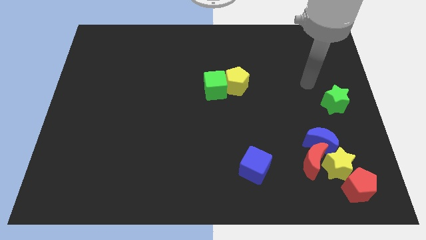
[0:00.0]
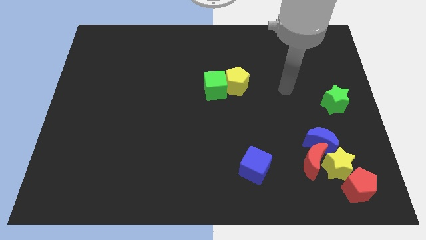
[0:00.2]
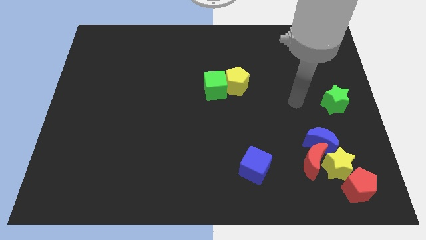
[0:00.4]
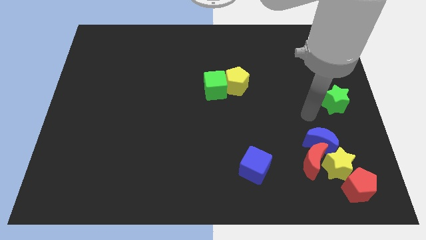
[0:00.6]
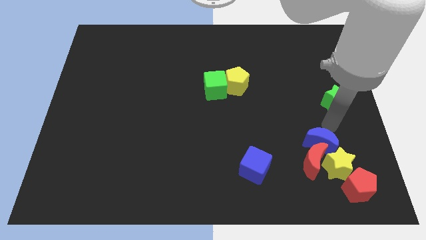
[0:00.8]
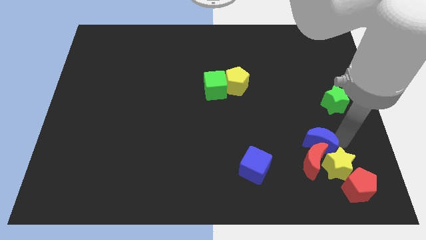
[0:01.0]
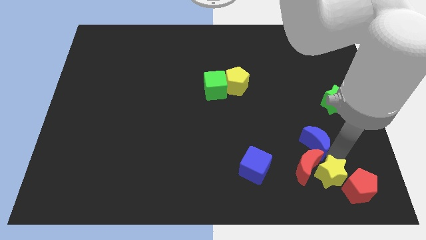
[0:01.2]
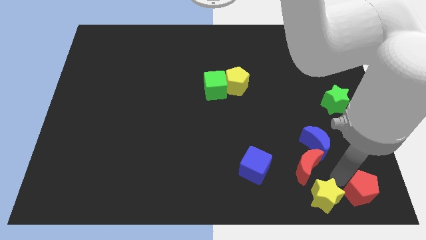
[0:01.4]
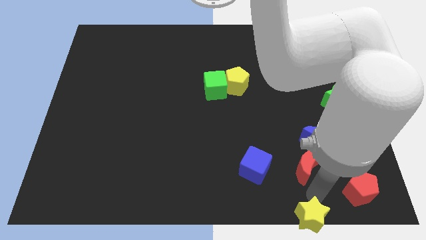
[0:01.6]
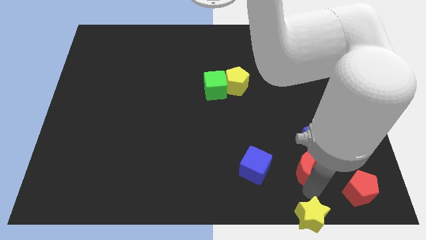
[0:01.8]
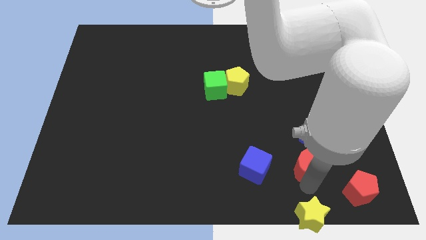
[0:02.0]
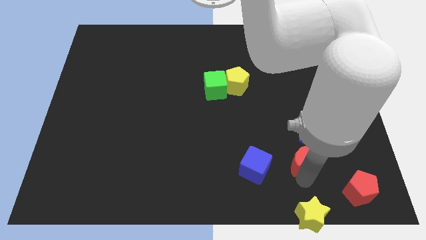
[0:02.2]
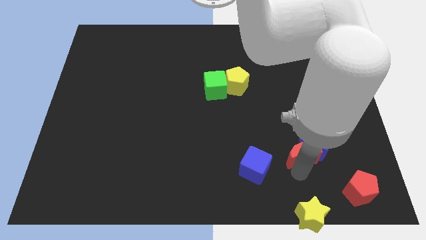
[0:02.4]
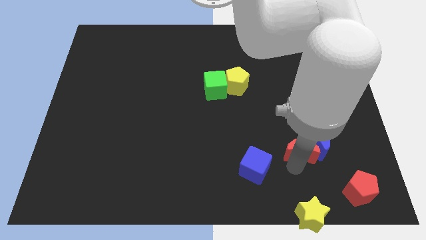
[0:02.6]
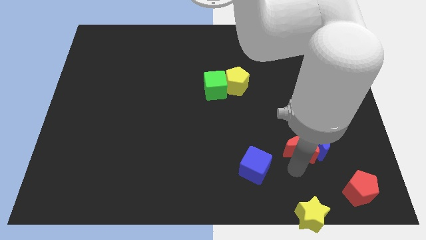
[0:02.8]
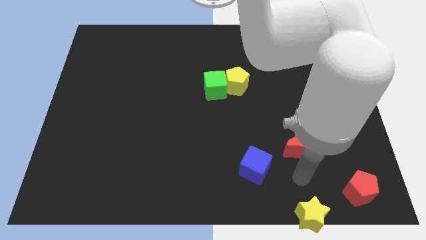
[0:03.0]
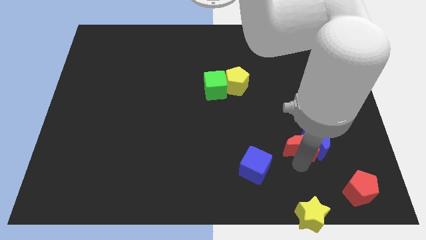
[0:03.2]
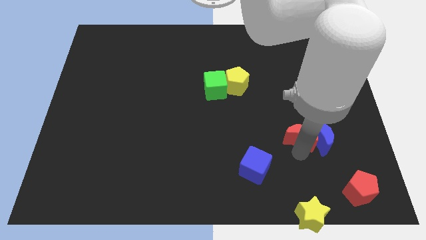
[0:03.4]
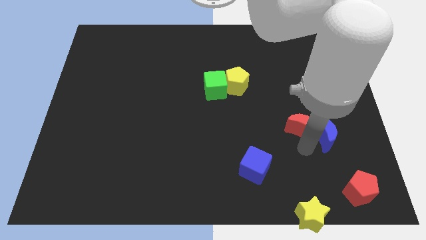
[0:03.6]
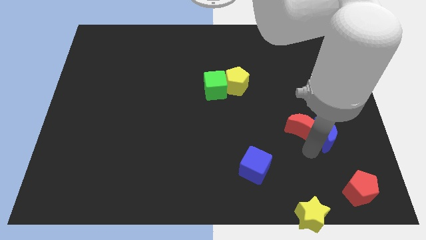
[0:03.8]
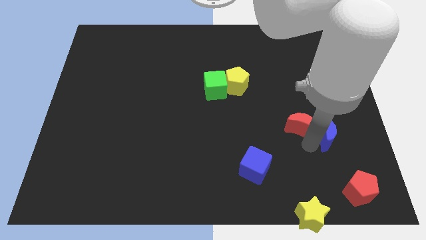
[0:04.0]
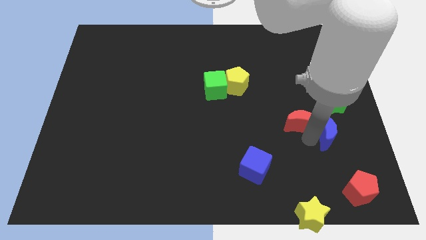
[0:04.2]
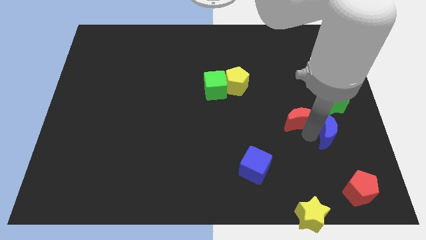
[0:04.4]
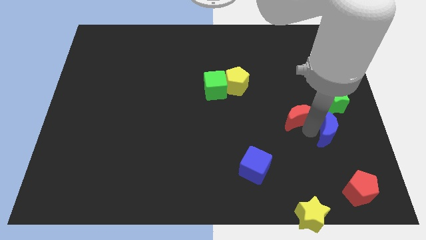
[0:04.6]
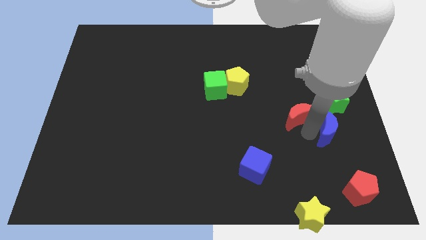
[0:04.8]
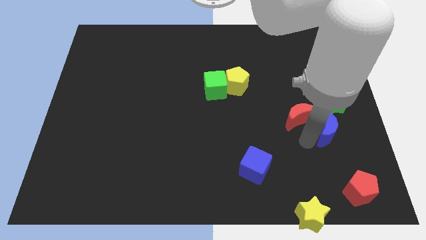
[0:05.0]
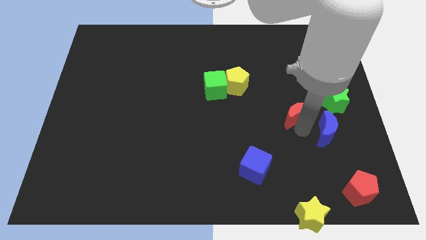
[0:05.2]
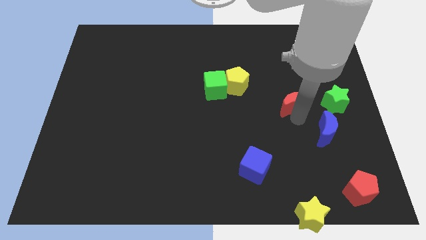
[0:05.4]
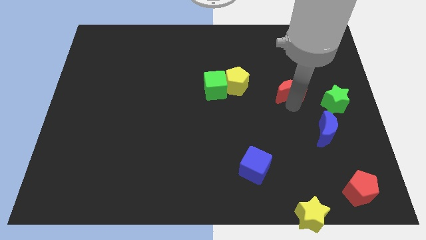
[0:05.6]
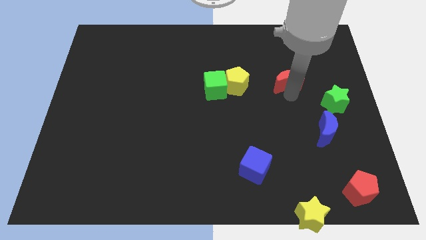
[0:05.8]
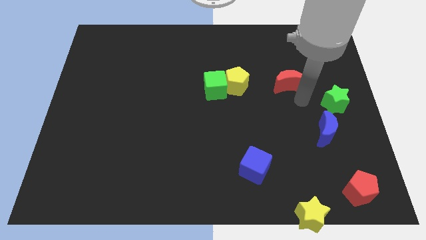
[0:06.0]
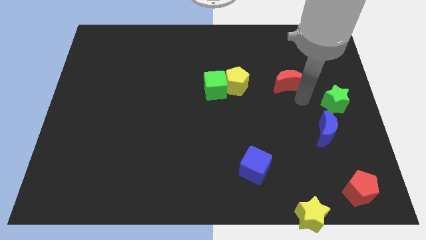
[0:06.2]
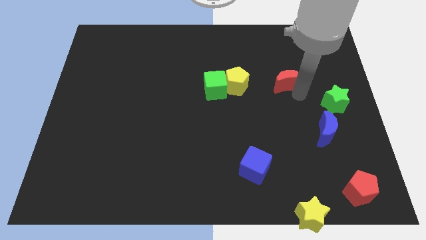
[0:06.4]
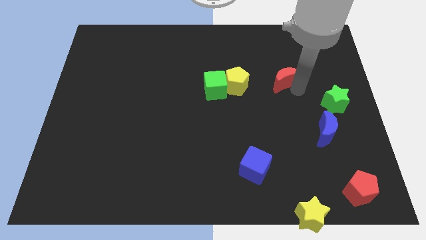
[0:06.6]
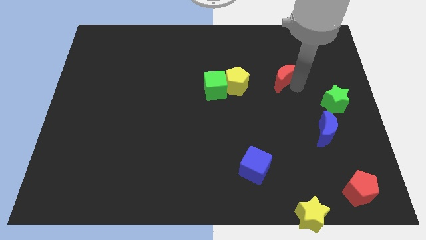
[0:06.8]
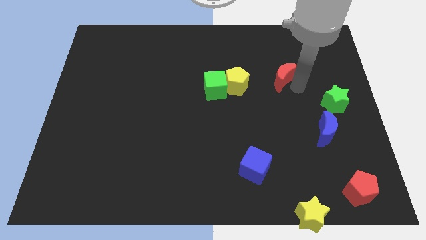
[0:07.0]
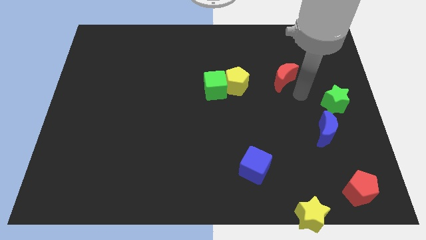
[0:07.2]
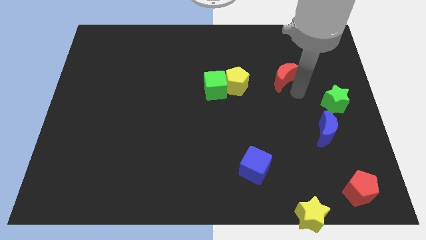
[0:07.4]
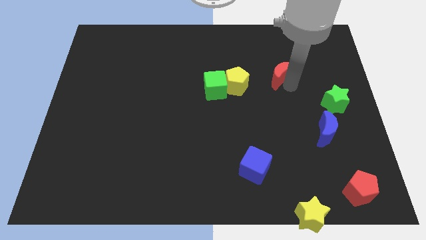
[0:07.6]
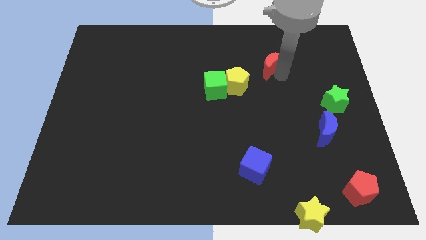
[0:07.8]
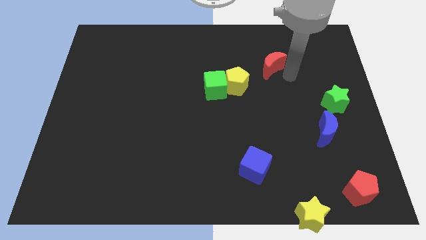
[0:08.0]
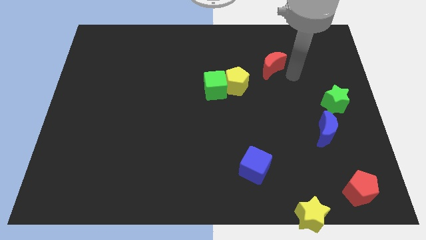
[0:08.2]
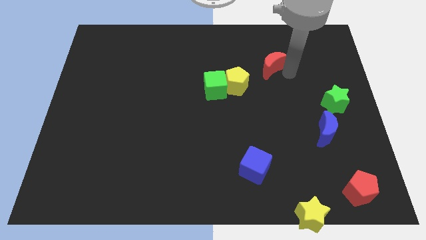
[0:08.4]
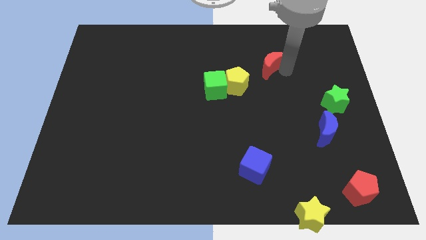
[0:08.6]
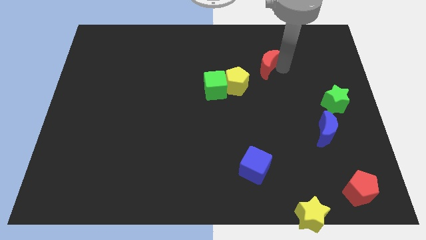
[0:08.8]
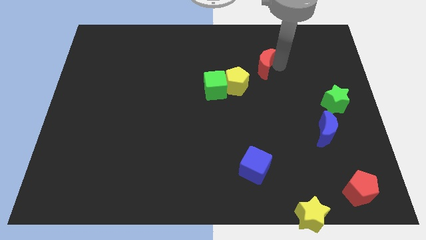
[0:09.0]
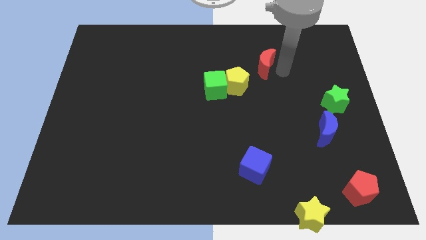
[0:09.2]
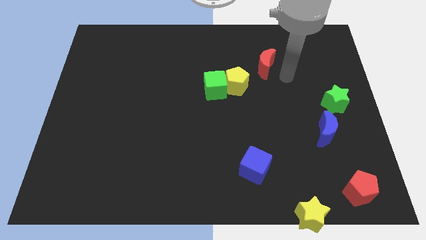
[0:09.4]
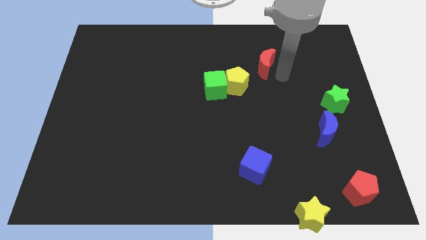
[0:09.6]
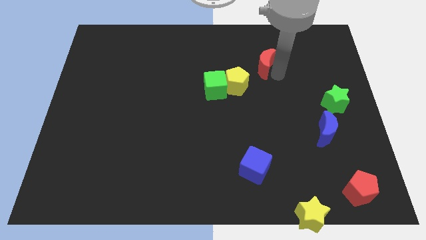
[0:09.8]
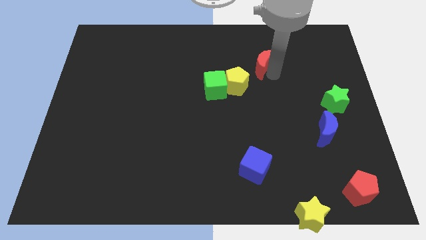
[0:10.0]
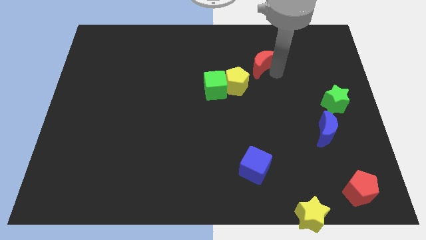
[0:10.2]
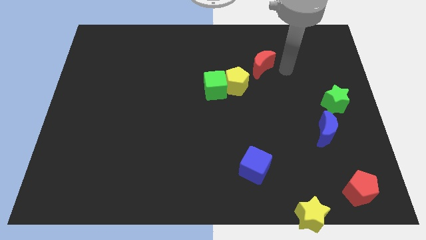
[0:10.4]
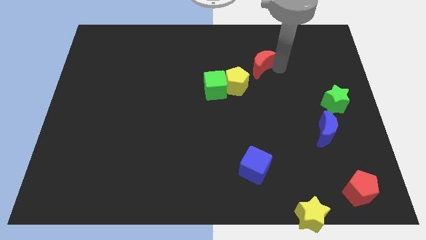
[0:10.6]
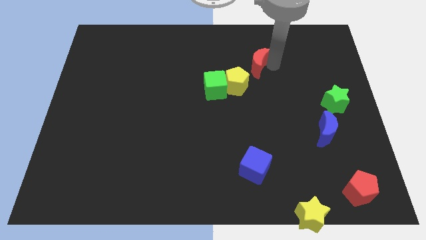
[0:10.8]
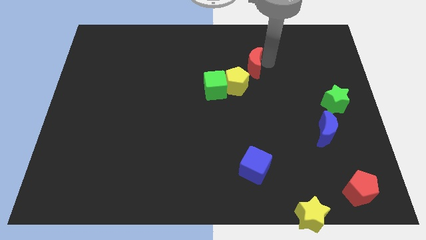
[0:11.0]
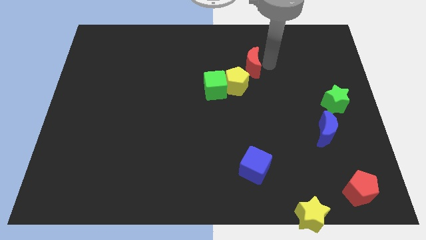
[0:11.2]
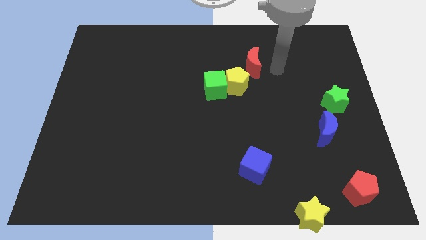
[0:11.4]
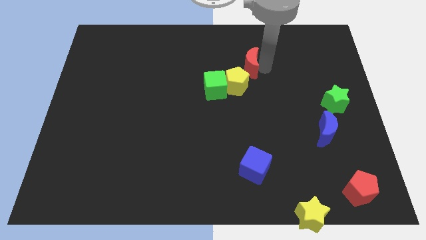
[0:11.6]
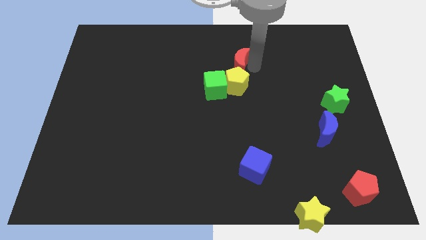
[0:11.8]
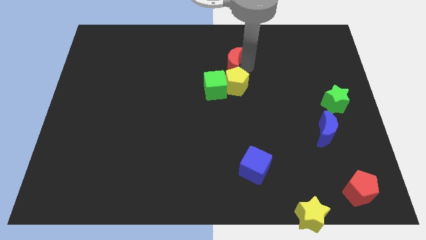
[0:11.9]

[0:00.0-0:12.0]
move the red moon above the green cube
